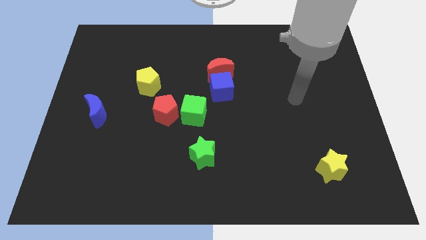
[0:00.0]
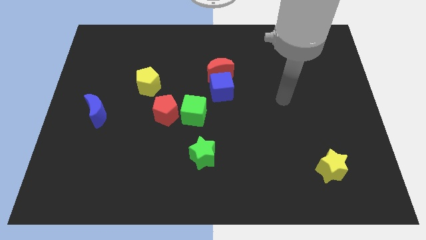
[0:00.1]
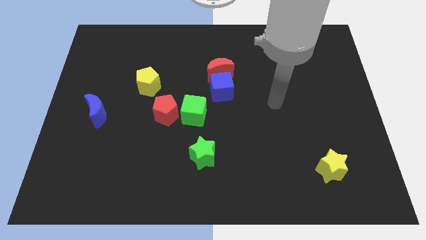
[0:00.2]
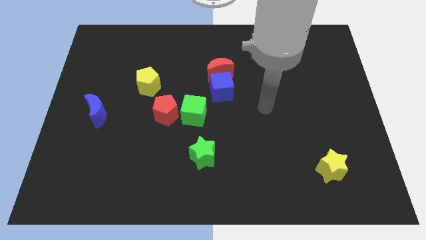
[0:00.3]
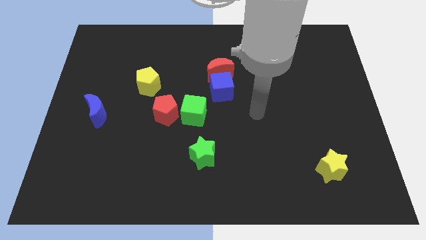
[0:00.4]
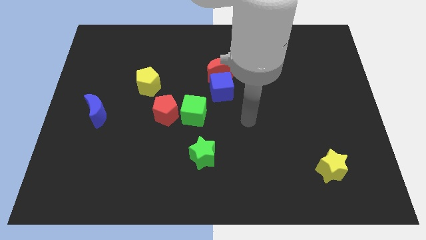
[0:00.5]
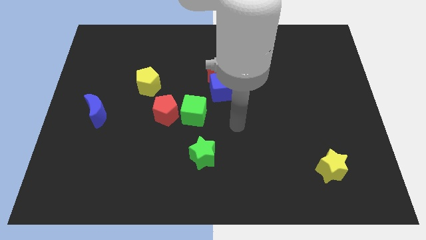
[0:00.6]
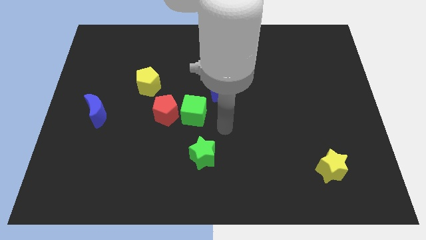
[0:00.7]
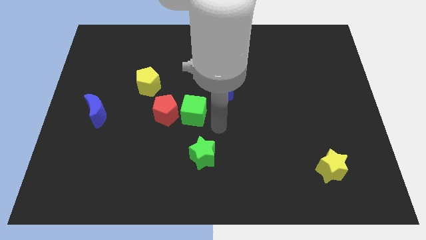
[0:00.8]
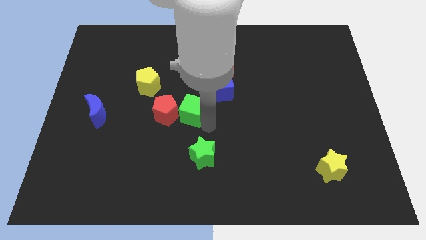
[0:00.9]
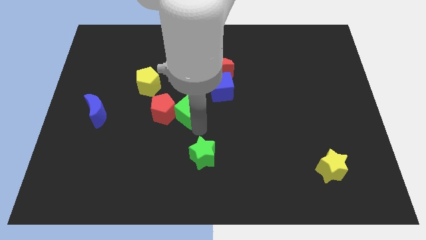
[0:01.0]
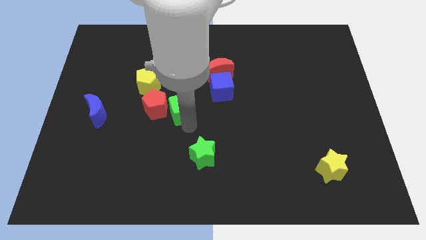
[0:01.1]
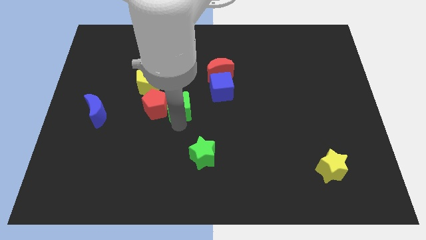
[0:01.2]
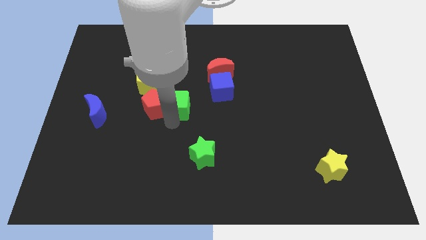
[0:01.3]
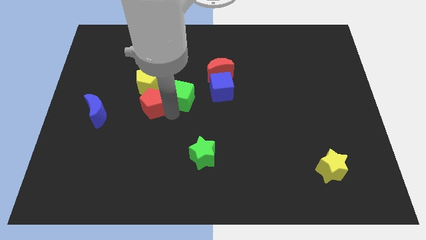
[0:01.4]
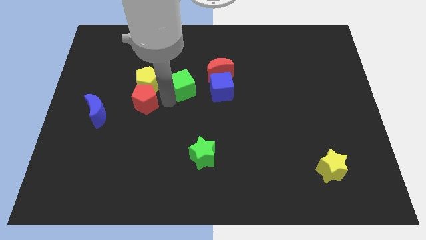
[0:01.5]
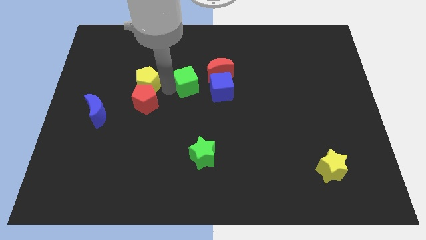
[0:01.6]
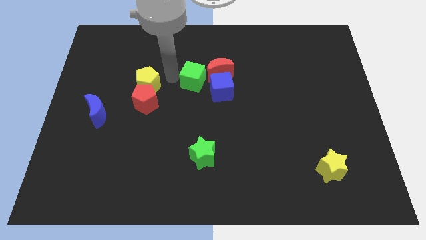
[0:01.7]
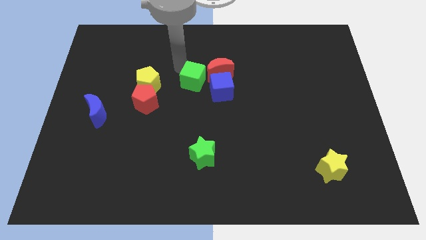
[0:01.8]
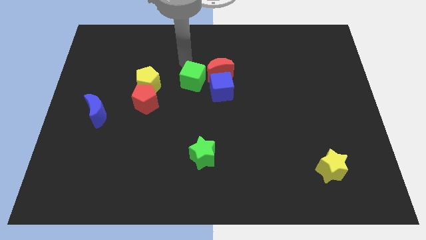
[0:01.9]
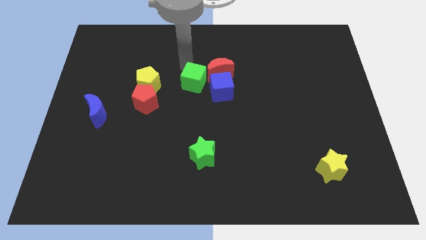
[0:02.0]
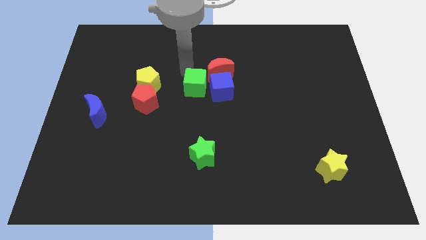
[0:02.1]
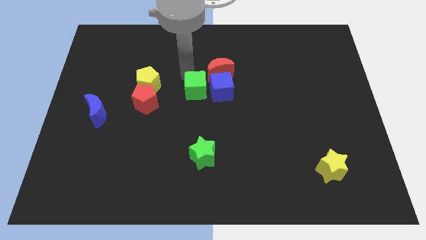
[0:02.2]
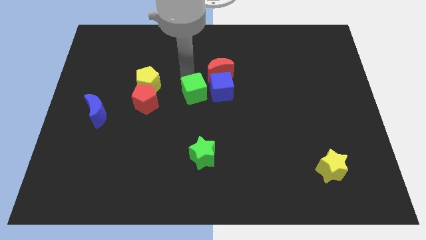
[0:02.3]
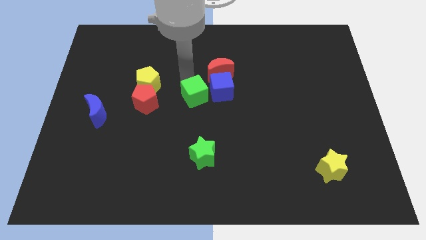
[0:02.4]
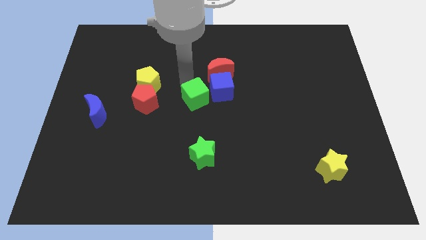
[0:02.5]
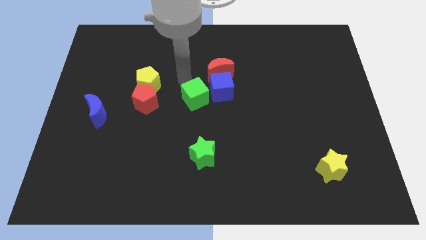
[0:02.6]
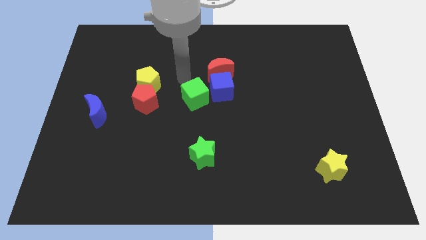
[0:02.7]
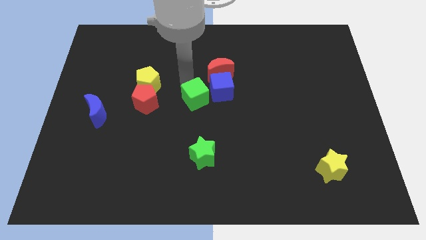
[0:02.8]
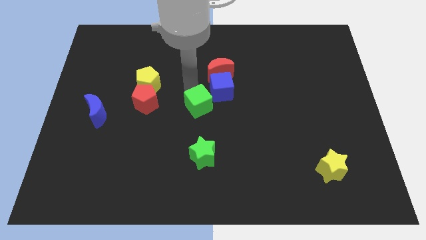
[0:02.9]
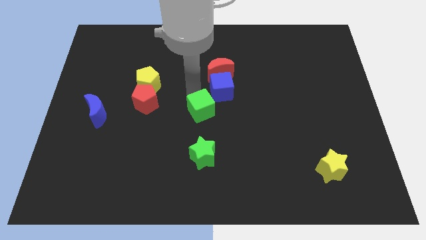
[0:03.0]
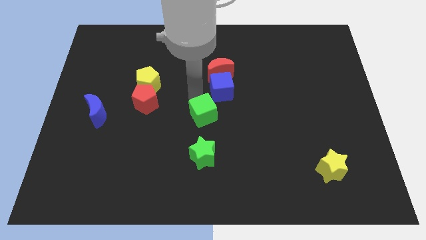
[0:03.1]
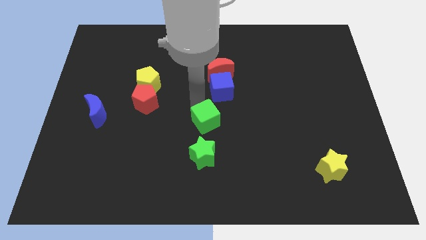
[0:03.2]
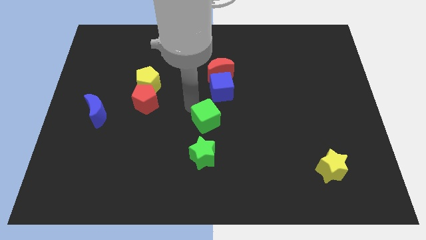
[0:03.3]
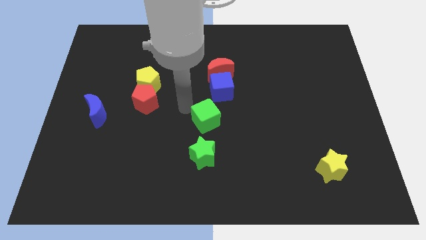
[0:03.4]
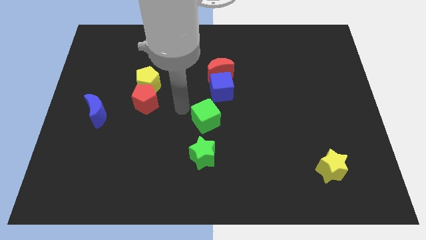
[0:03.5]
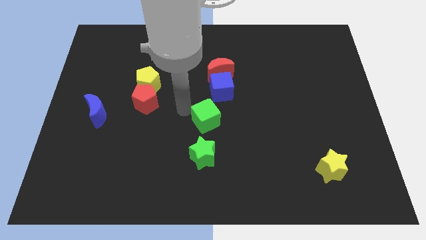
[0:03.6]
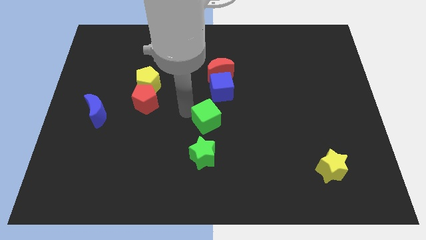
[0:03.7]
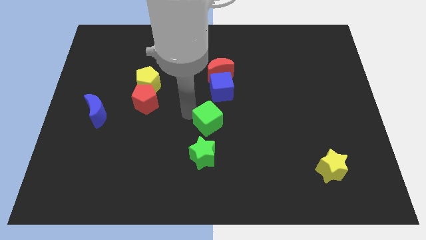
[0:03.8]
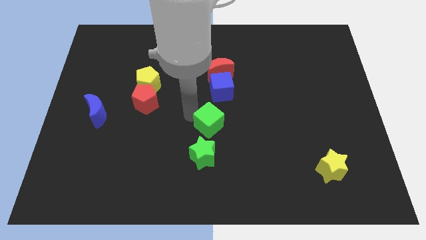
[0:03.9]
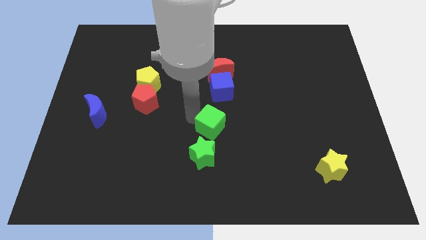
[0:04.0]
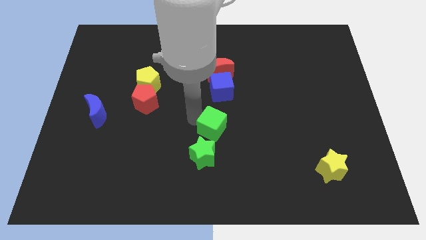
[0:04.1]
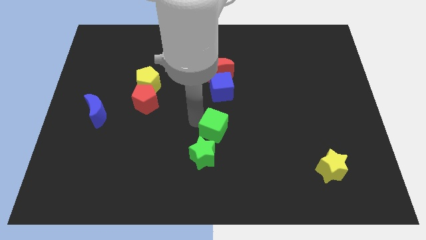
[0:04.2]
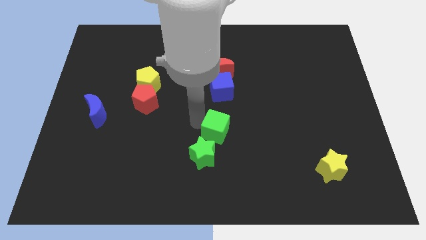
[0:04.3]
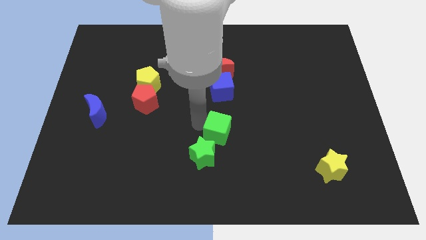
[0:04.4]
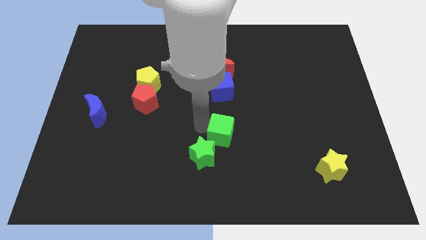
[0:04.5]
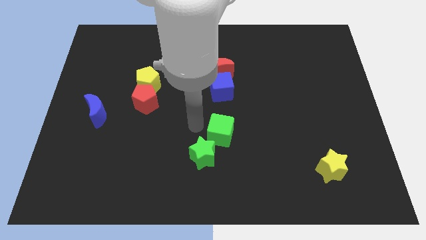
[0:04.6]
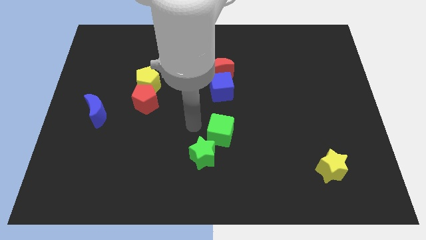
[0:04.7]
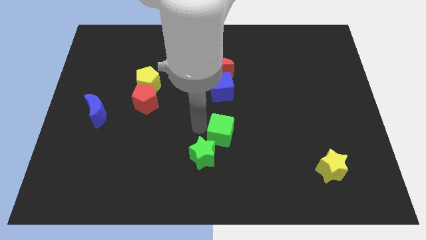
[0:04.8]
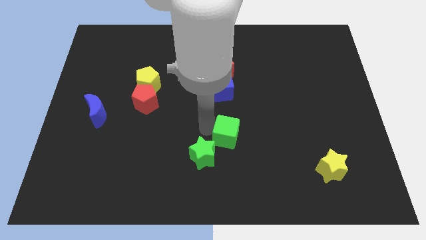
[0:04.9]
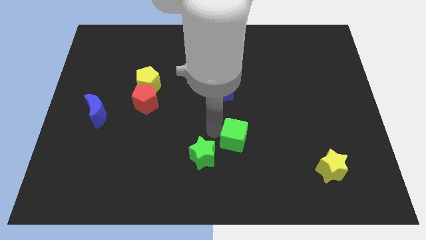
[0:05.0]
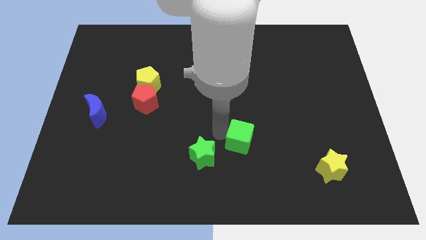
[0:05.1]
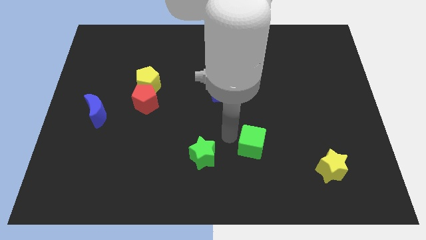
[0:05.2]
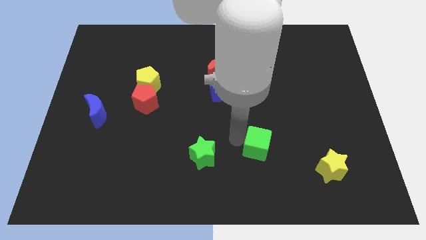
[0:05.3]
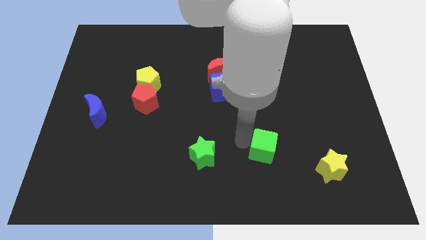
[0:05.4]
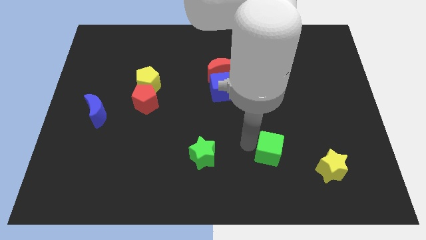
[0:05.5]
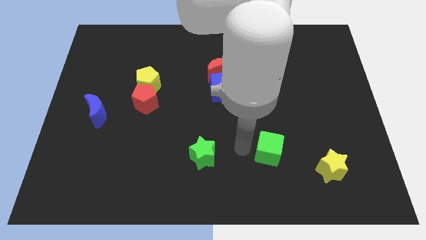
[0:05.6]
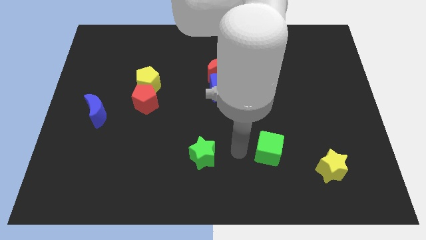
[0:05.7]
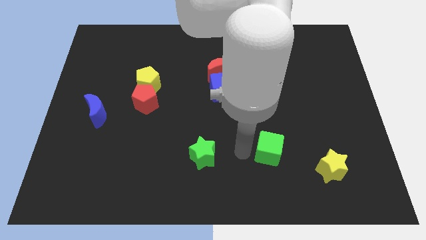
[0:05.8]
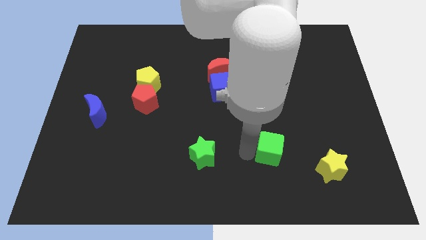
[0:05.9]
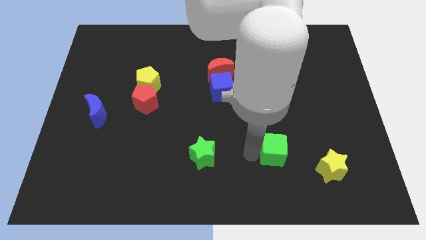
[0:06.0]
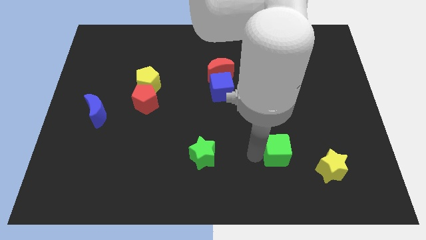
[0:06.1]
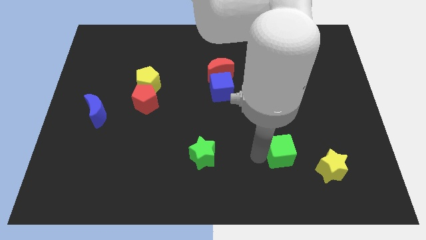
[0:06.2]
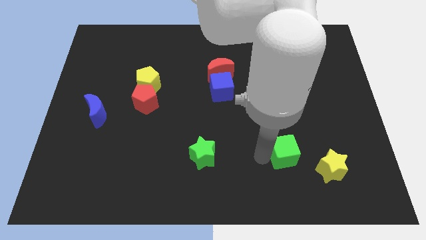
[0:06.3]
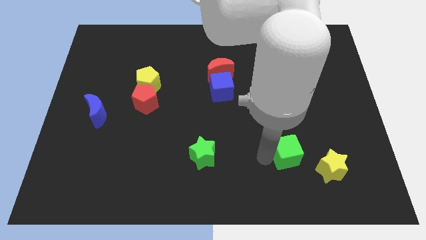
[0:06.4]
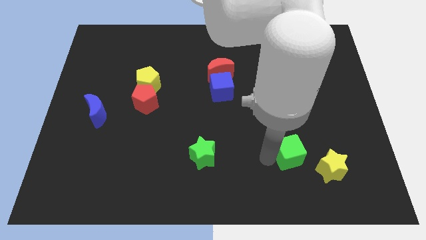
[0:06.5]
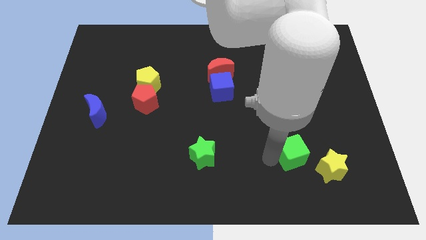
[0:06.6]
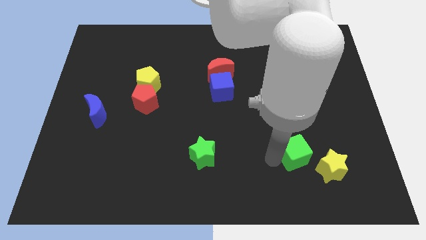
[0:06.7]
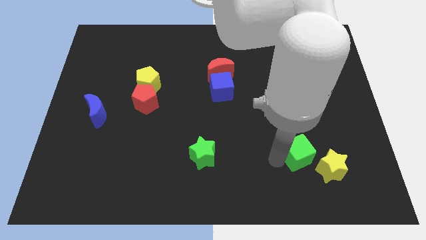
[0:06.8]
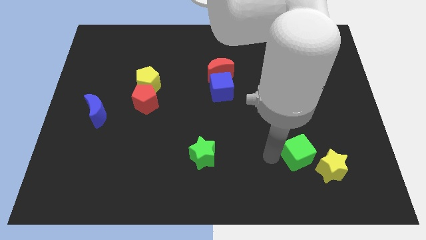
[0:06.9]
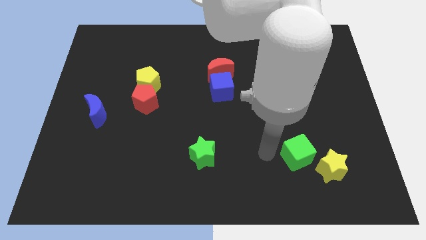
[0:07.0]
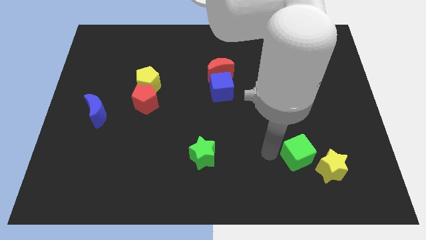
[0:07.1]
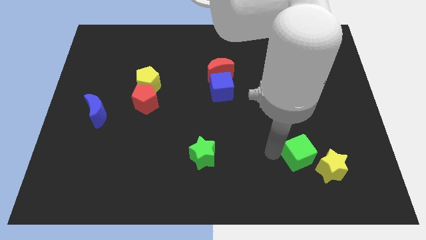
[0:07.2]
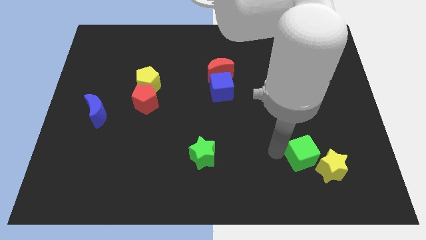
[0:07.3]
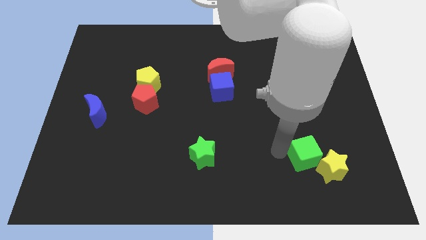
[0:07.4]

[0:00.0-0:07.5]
push the green cube close to the yellow star

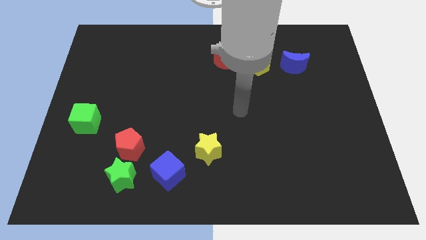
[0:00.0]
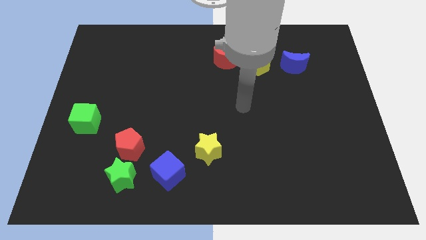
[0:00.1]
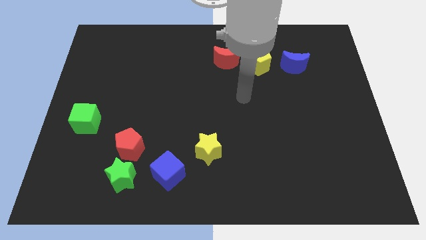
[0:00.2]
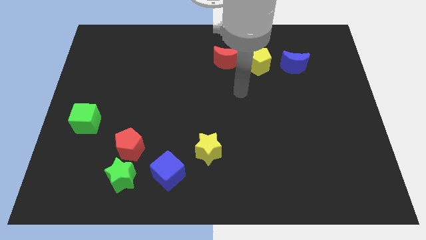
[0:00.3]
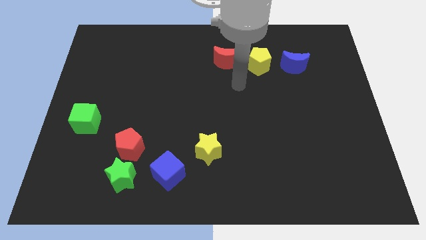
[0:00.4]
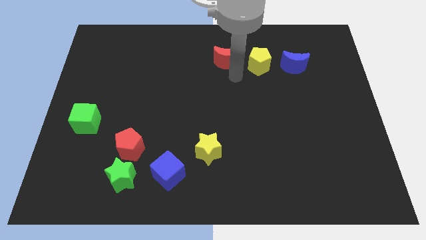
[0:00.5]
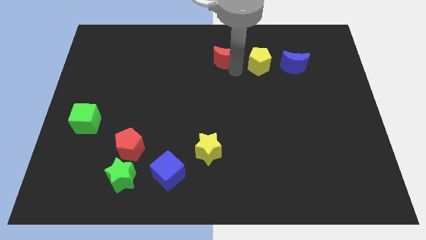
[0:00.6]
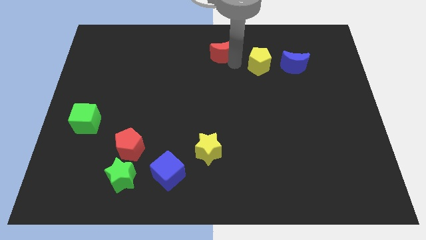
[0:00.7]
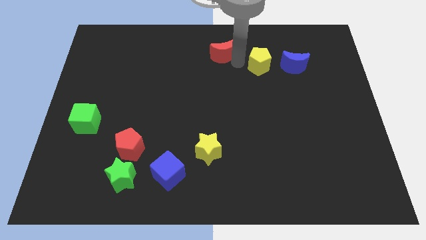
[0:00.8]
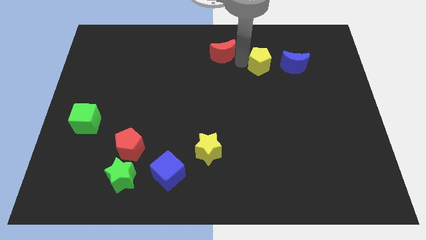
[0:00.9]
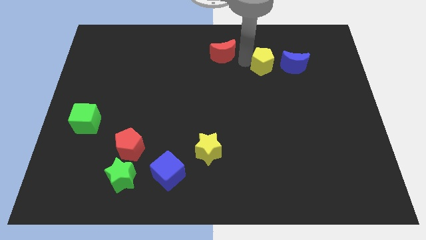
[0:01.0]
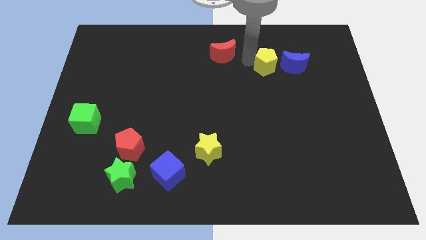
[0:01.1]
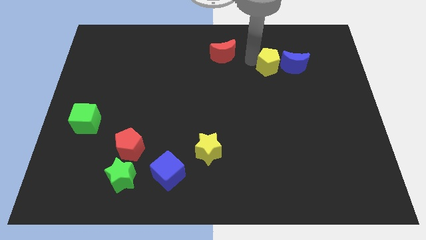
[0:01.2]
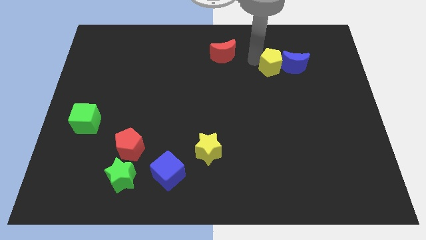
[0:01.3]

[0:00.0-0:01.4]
move the yellow pentagon next to the blue moon
